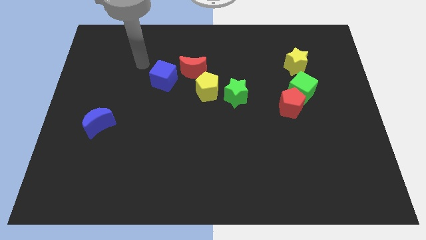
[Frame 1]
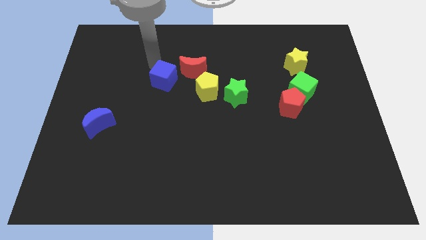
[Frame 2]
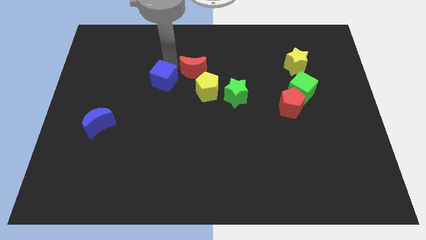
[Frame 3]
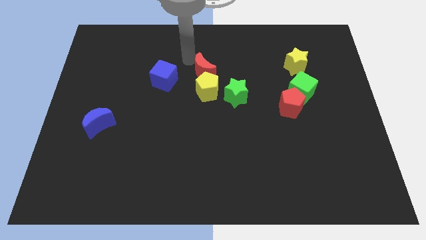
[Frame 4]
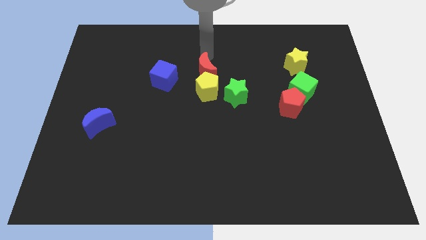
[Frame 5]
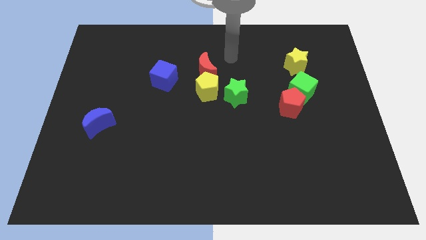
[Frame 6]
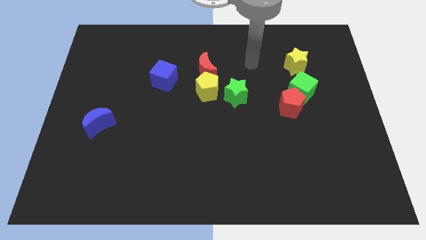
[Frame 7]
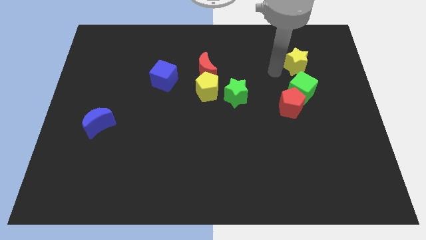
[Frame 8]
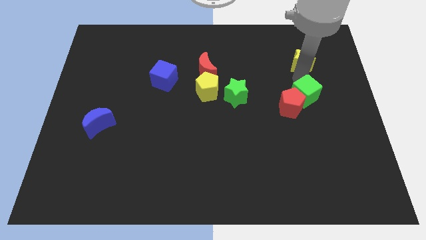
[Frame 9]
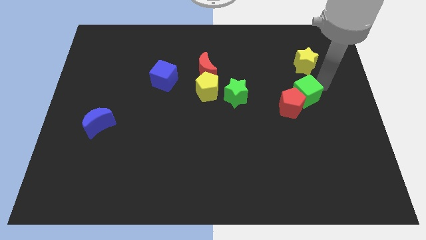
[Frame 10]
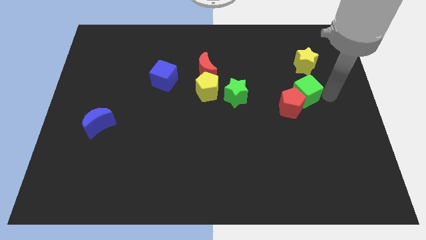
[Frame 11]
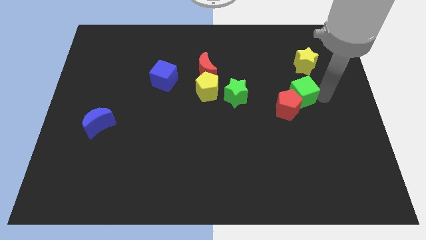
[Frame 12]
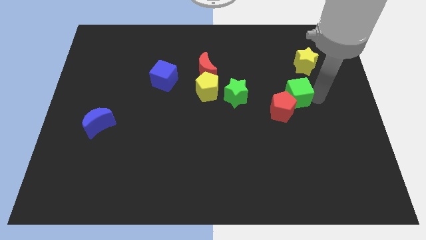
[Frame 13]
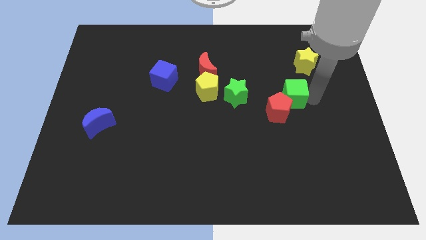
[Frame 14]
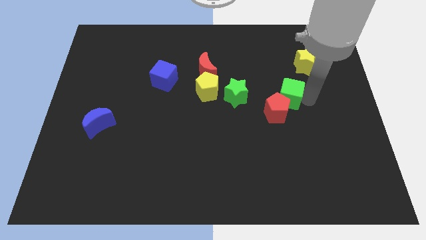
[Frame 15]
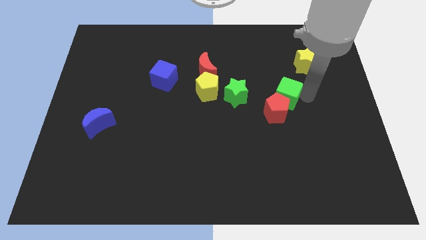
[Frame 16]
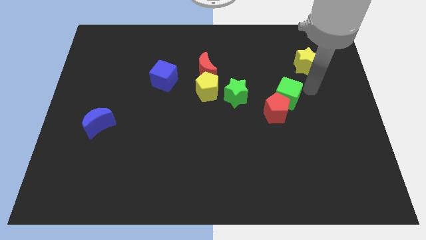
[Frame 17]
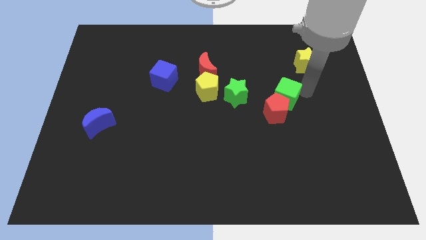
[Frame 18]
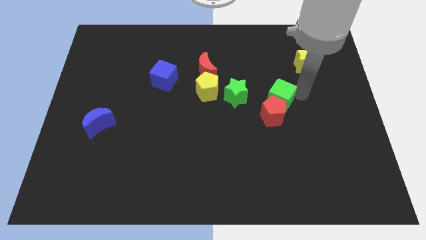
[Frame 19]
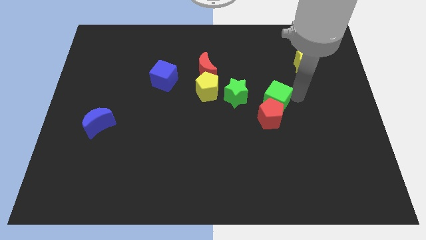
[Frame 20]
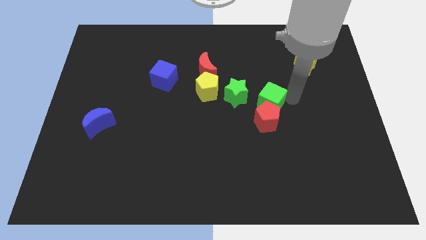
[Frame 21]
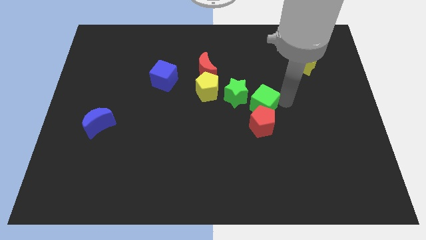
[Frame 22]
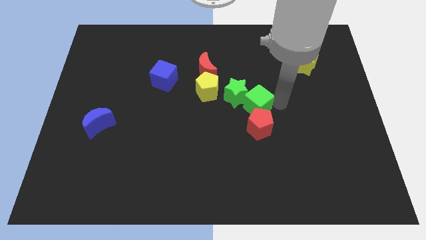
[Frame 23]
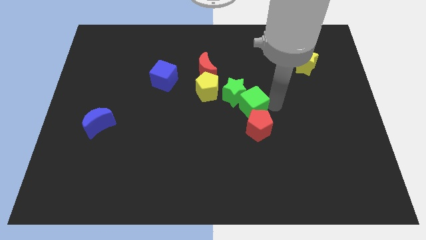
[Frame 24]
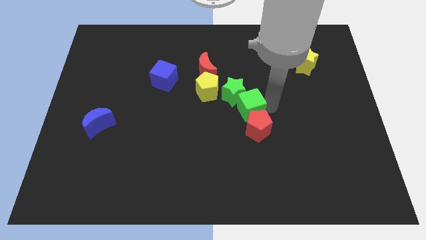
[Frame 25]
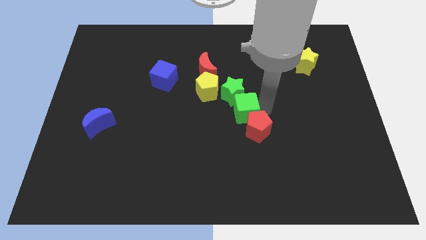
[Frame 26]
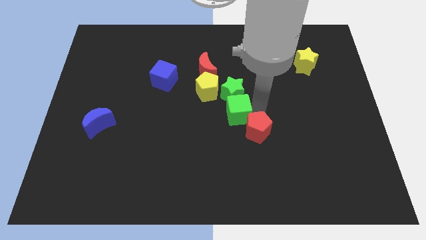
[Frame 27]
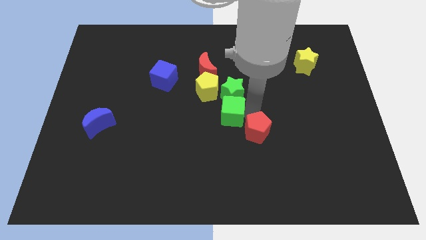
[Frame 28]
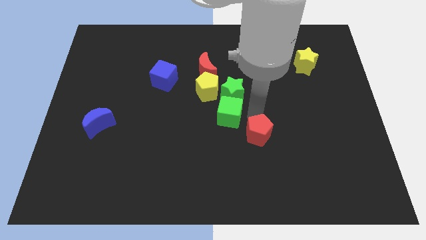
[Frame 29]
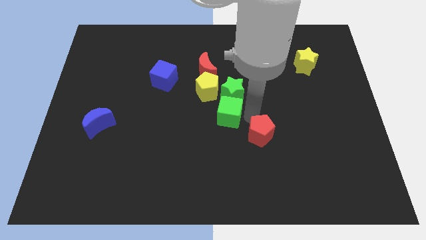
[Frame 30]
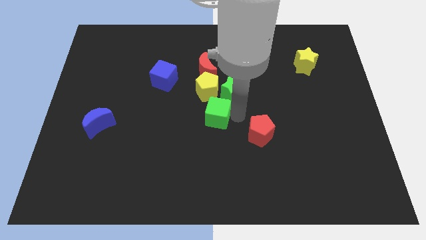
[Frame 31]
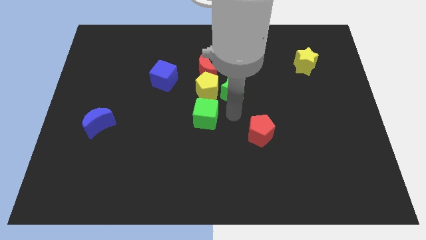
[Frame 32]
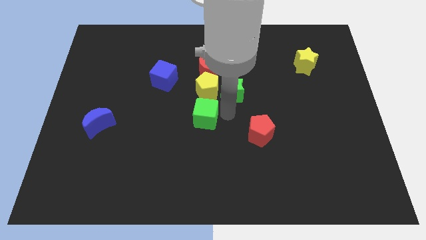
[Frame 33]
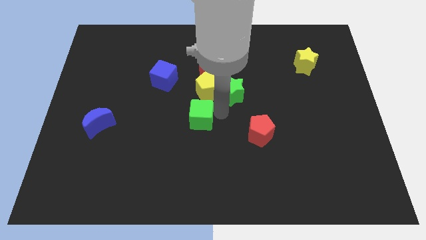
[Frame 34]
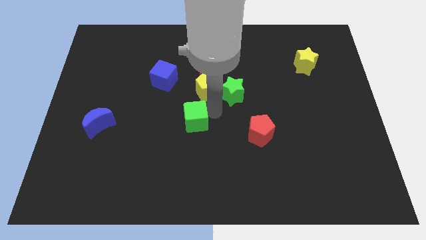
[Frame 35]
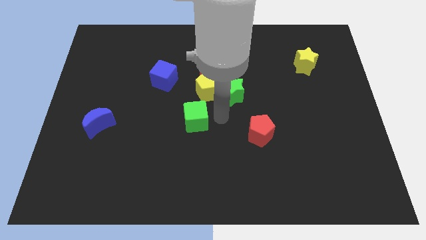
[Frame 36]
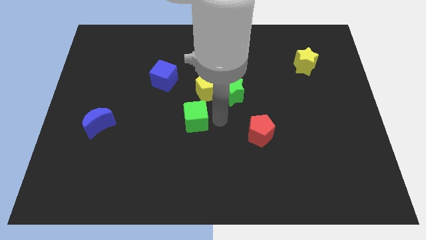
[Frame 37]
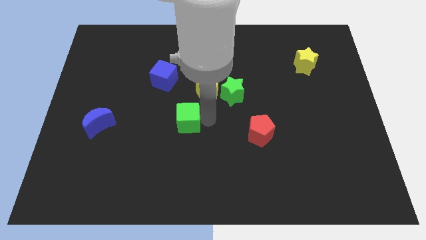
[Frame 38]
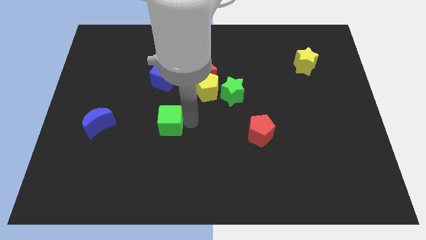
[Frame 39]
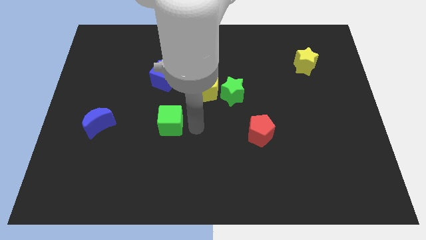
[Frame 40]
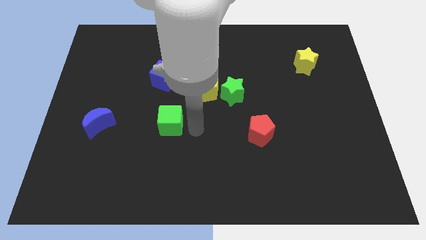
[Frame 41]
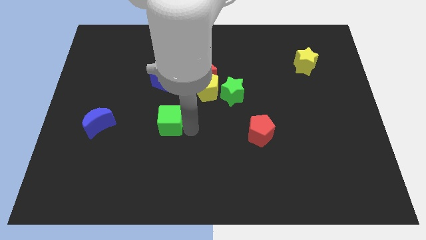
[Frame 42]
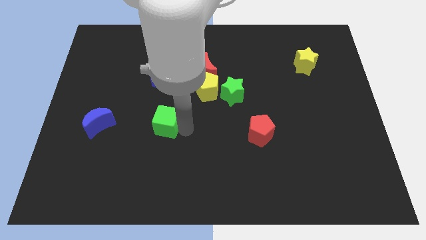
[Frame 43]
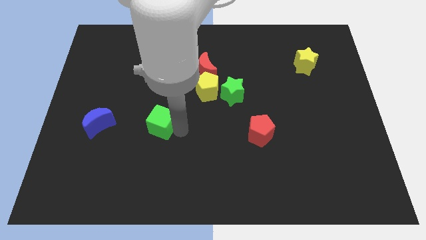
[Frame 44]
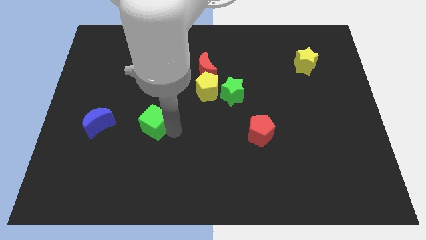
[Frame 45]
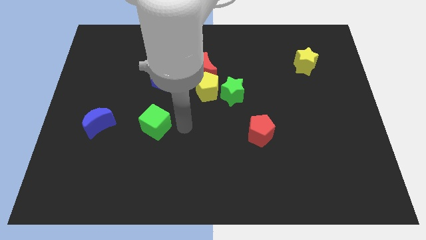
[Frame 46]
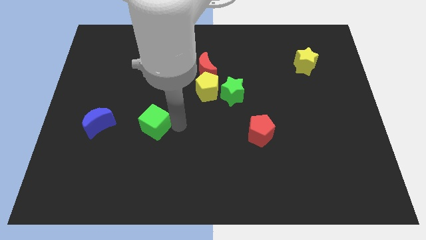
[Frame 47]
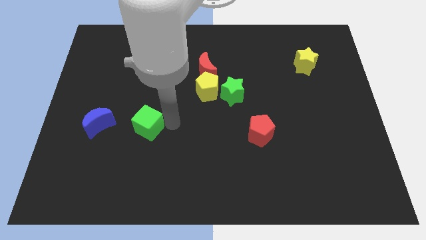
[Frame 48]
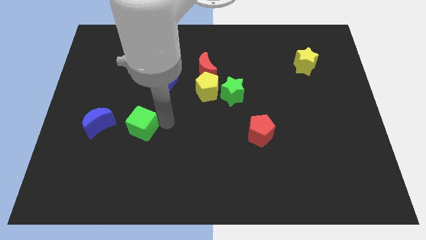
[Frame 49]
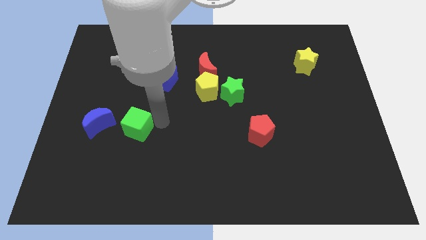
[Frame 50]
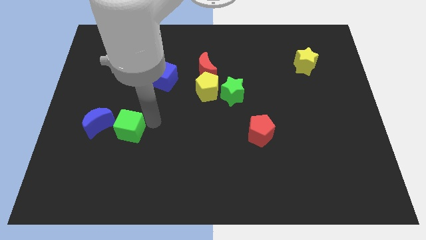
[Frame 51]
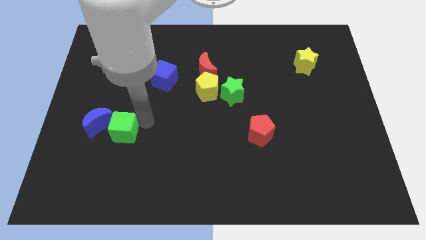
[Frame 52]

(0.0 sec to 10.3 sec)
move the green cube close to the blue moon

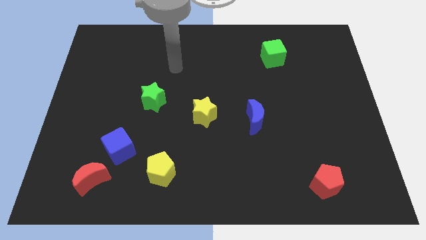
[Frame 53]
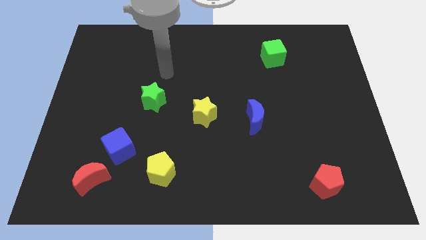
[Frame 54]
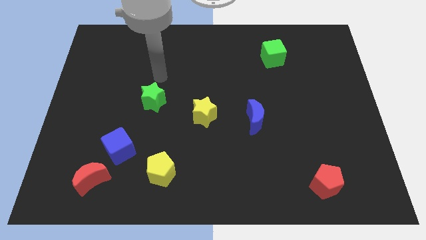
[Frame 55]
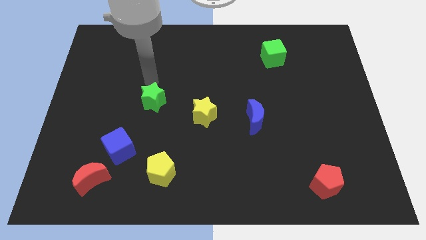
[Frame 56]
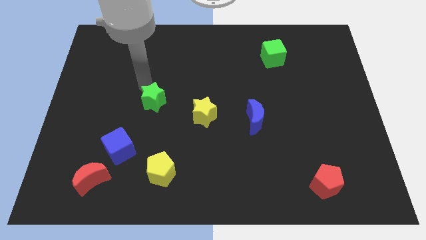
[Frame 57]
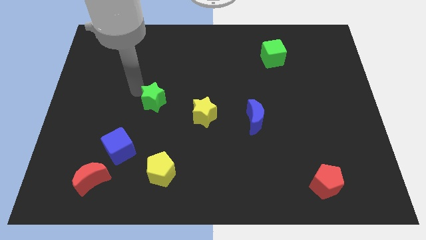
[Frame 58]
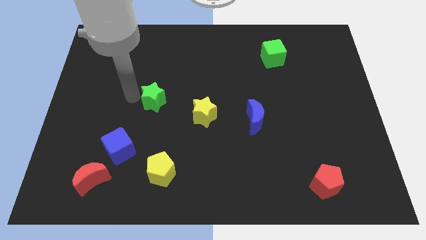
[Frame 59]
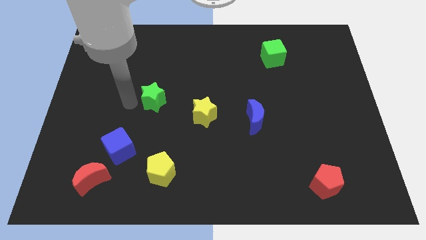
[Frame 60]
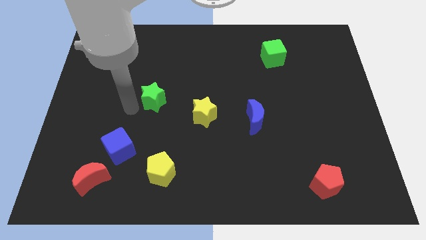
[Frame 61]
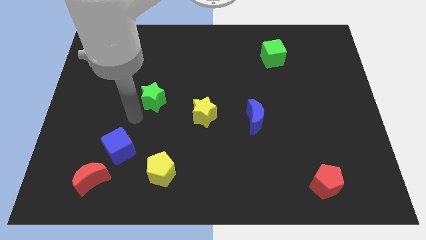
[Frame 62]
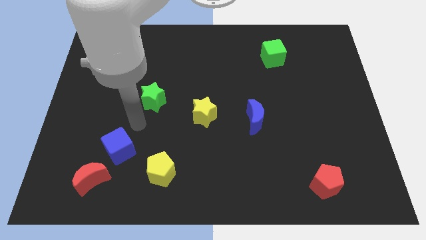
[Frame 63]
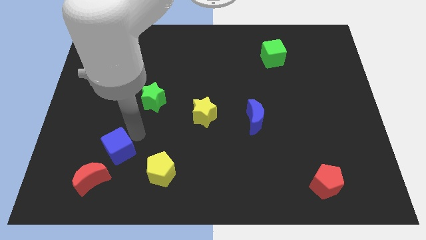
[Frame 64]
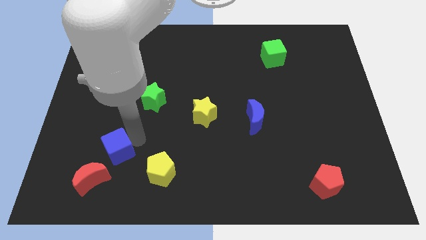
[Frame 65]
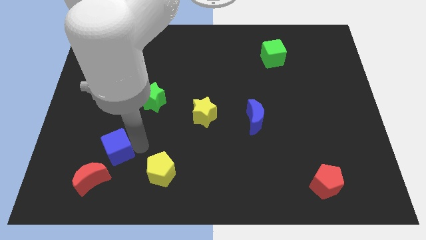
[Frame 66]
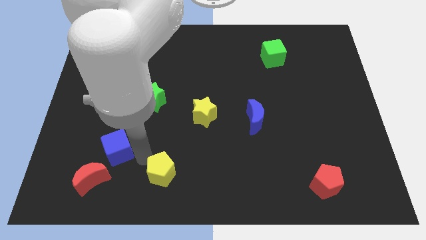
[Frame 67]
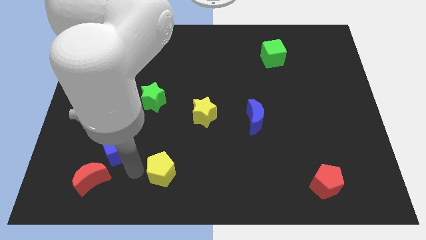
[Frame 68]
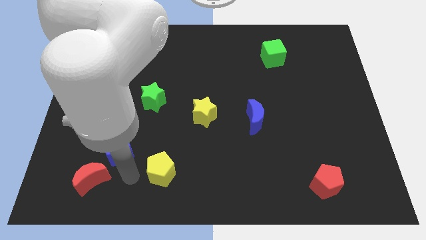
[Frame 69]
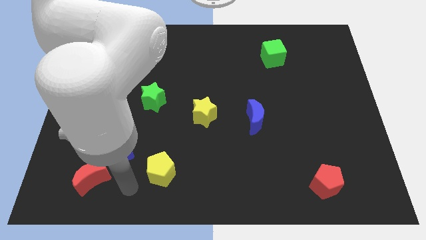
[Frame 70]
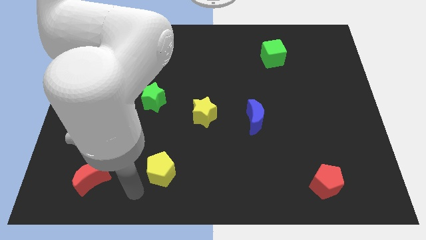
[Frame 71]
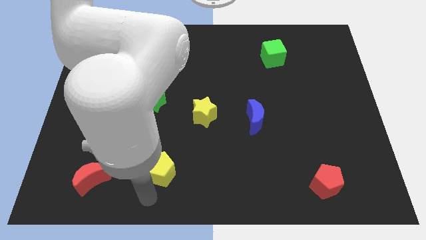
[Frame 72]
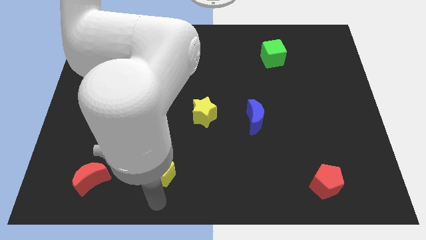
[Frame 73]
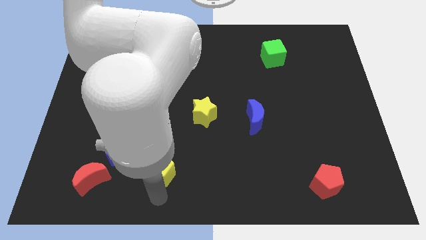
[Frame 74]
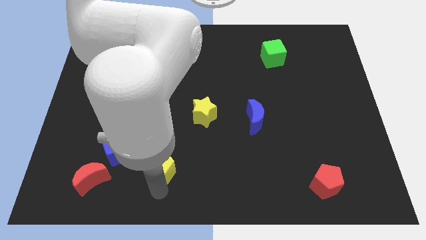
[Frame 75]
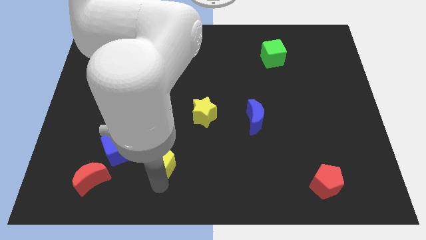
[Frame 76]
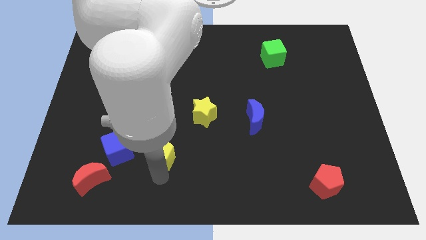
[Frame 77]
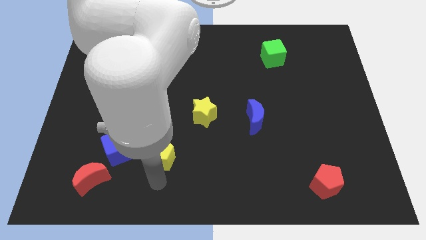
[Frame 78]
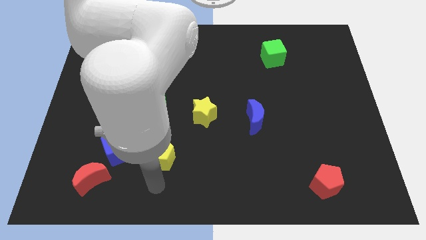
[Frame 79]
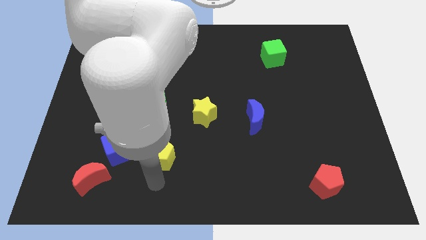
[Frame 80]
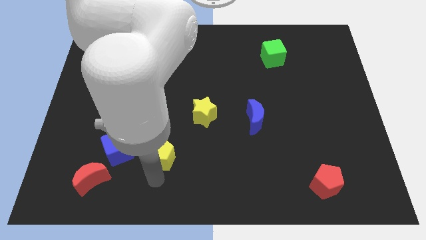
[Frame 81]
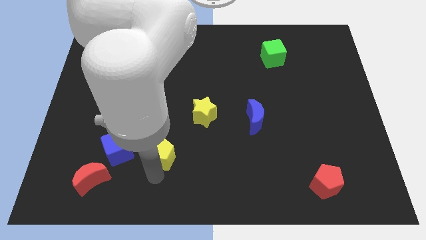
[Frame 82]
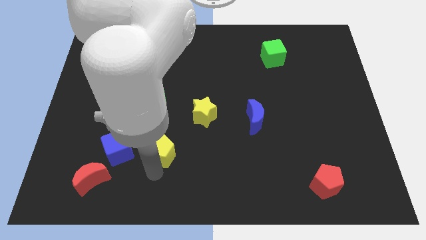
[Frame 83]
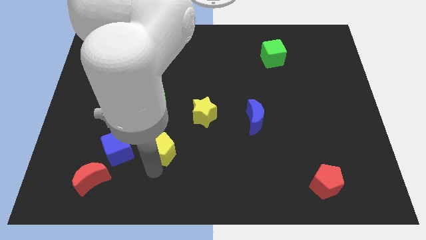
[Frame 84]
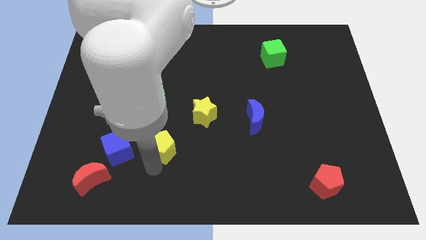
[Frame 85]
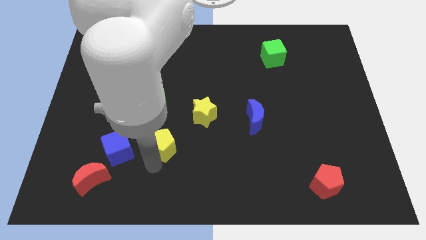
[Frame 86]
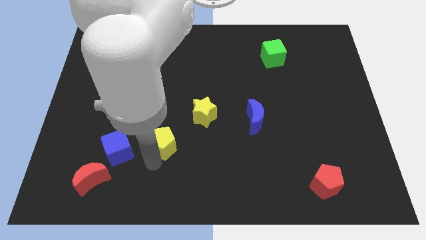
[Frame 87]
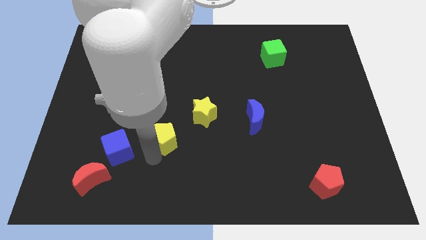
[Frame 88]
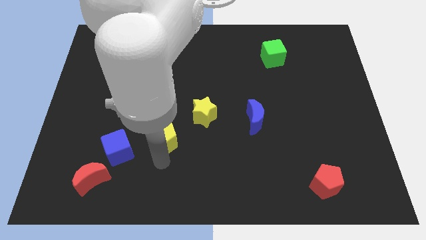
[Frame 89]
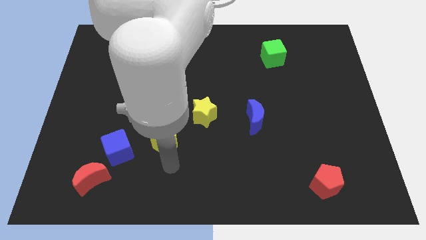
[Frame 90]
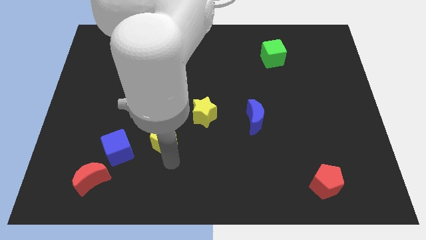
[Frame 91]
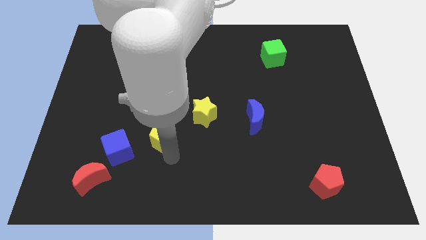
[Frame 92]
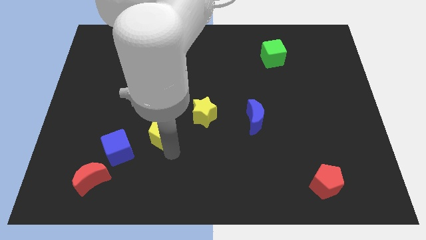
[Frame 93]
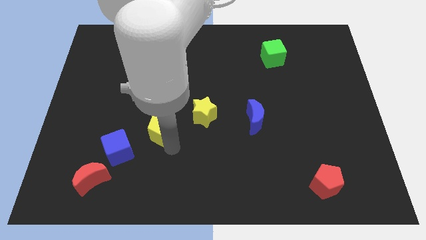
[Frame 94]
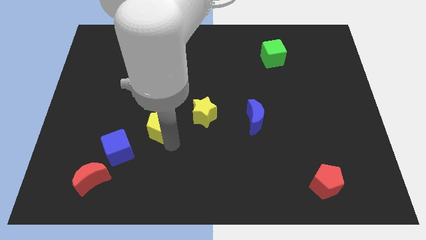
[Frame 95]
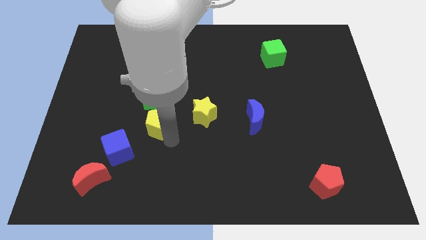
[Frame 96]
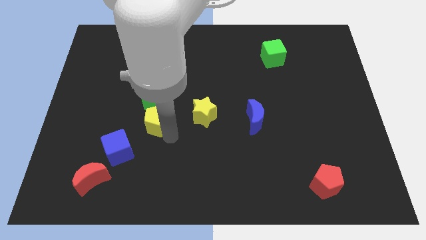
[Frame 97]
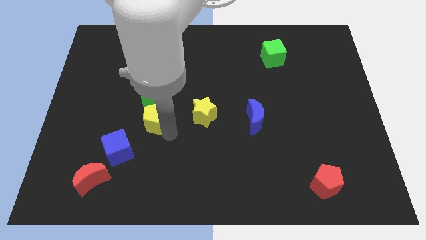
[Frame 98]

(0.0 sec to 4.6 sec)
put the yellow pentagon next to the green star
